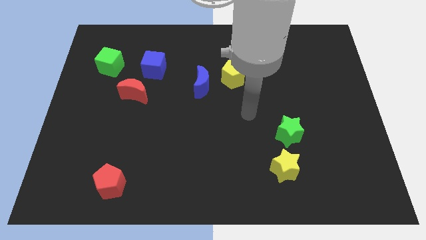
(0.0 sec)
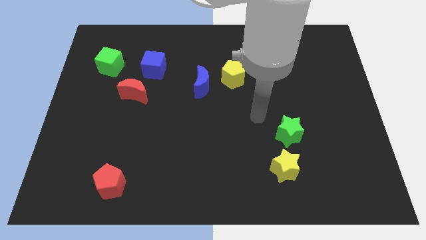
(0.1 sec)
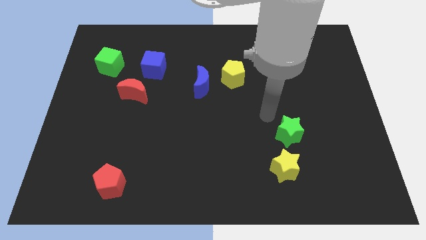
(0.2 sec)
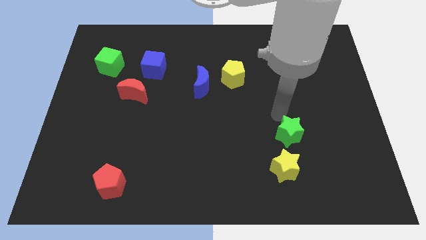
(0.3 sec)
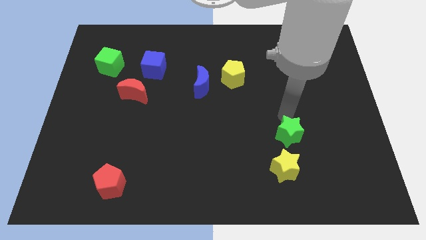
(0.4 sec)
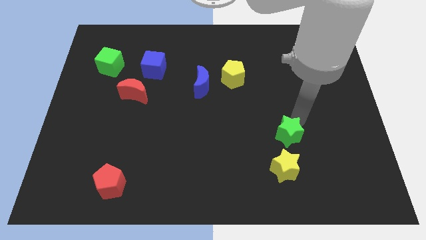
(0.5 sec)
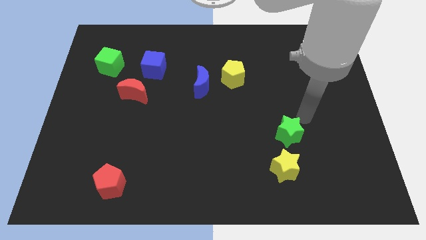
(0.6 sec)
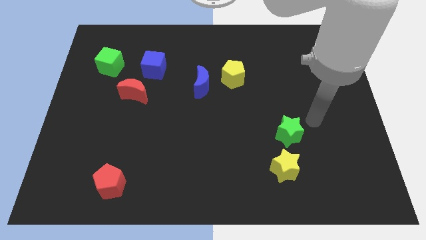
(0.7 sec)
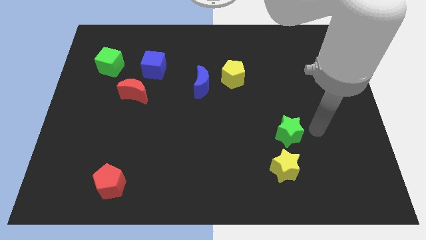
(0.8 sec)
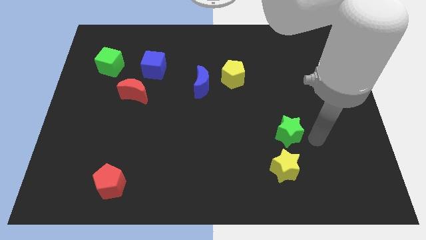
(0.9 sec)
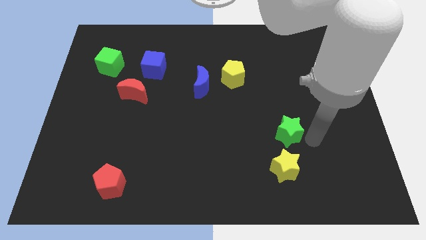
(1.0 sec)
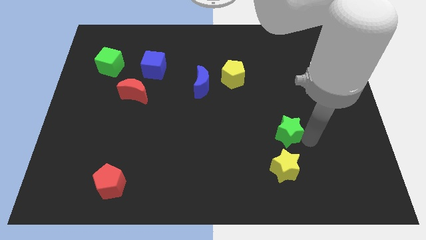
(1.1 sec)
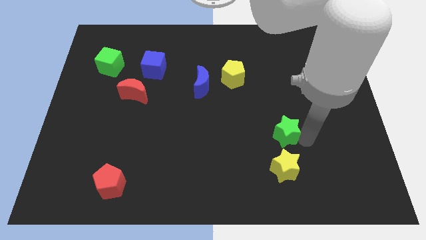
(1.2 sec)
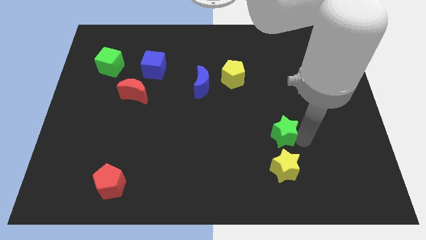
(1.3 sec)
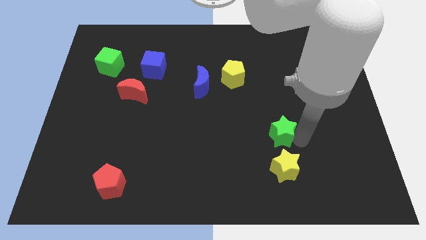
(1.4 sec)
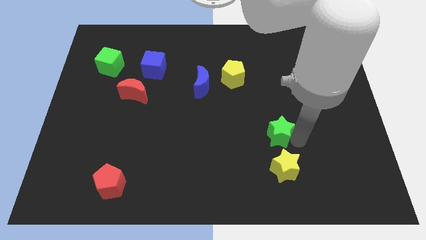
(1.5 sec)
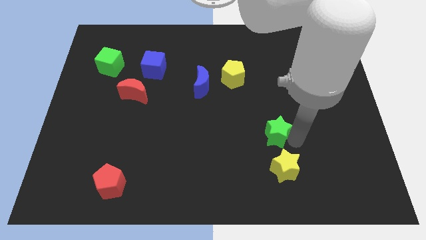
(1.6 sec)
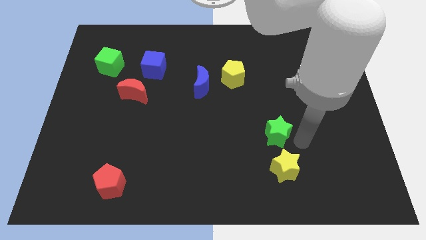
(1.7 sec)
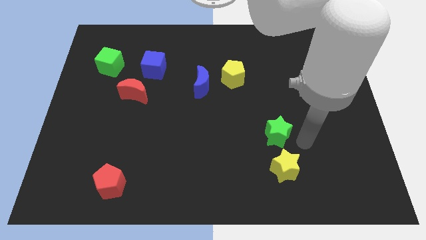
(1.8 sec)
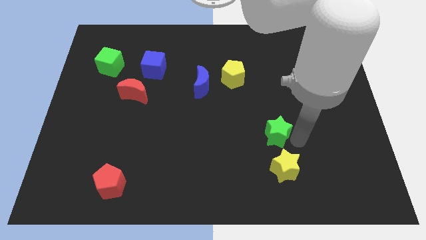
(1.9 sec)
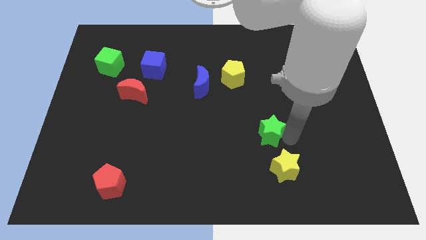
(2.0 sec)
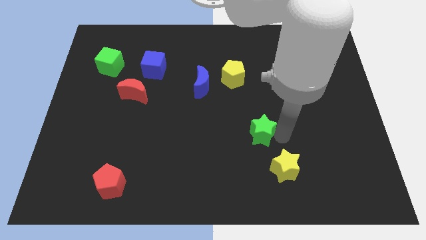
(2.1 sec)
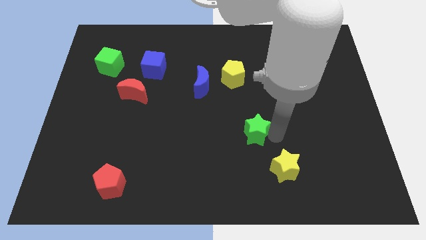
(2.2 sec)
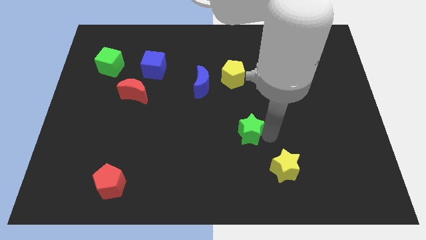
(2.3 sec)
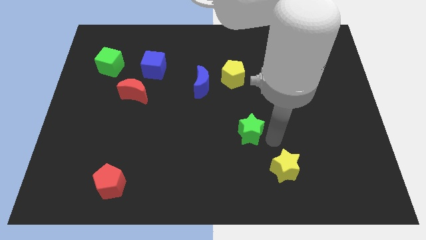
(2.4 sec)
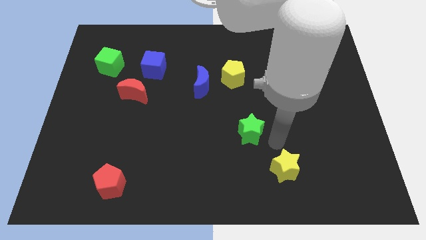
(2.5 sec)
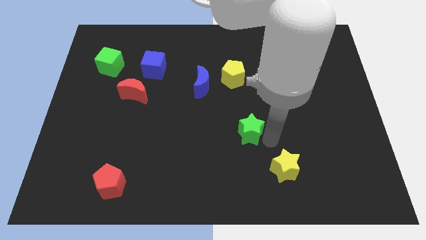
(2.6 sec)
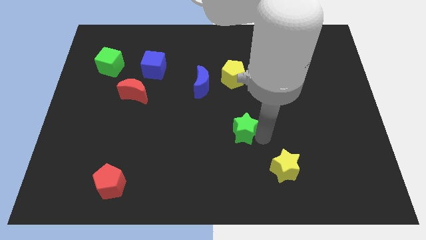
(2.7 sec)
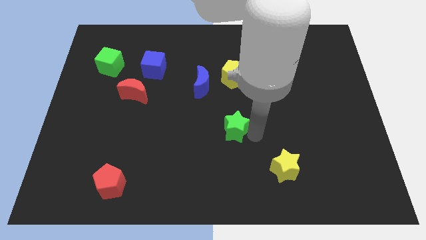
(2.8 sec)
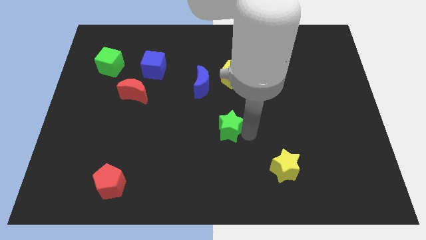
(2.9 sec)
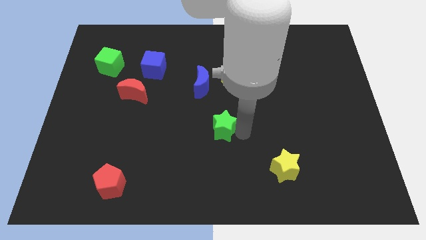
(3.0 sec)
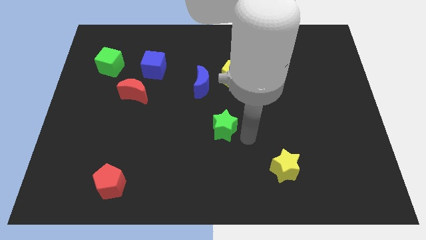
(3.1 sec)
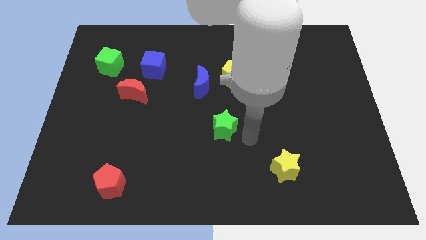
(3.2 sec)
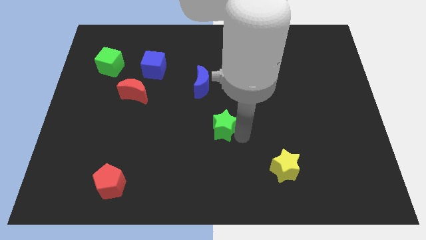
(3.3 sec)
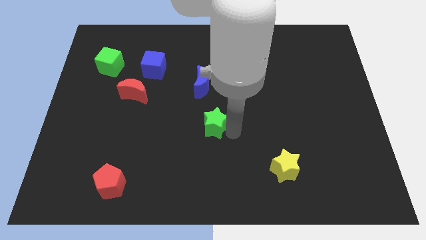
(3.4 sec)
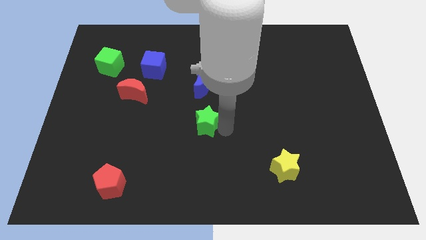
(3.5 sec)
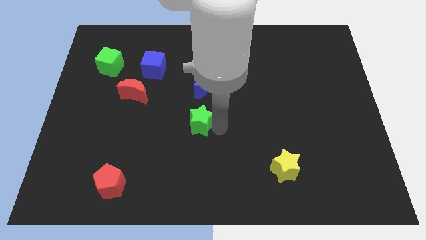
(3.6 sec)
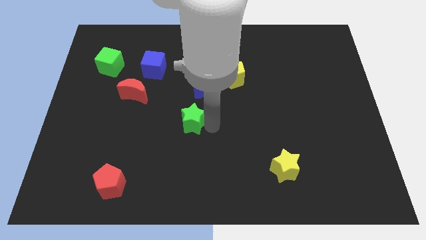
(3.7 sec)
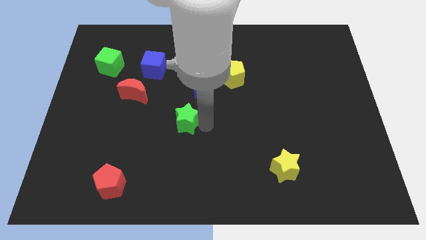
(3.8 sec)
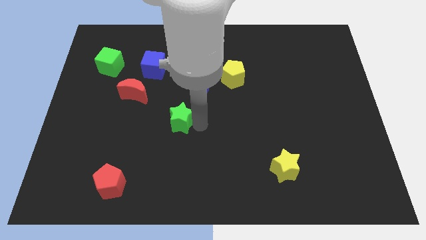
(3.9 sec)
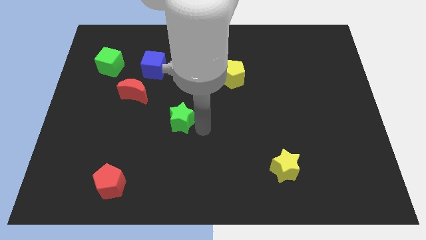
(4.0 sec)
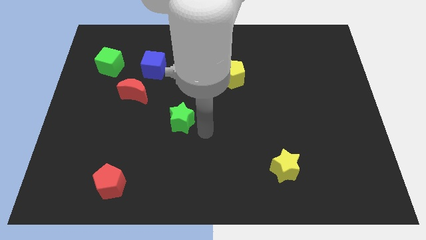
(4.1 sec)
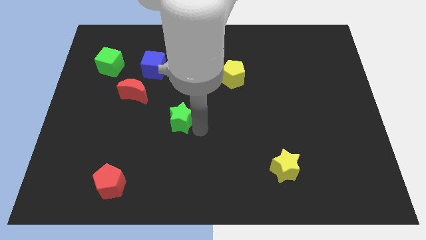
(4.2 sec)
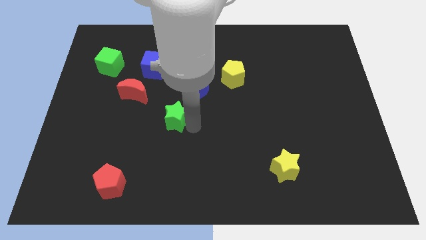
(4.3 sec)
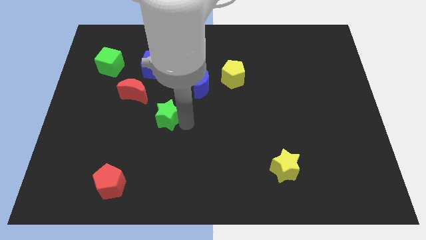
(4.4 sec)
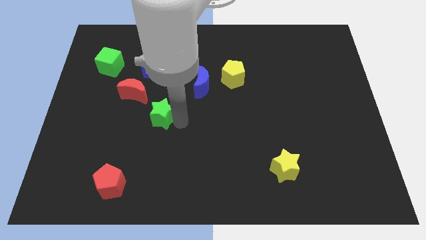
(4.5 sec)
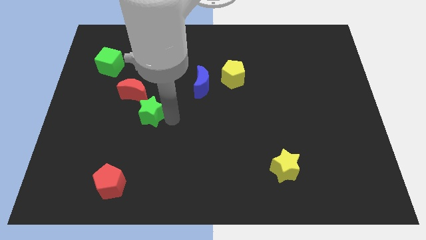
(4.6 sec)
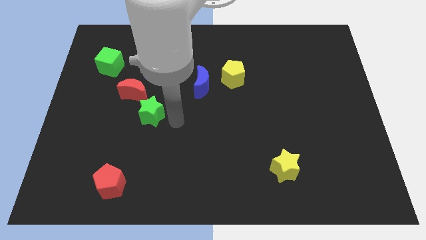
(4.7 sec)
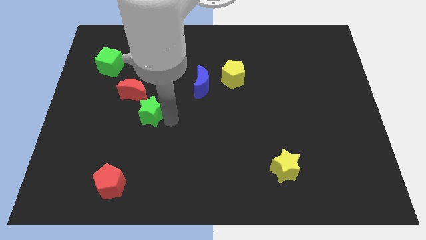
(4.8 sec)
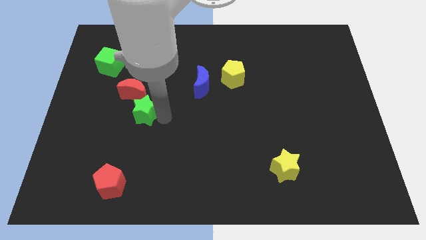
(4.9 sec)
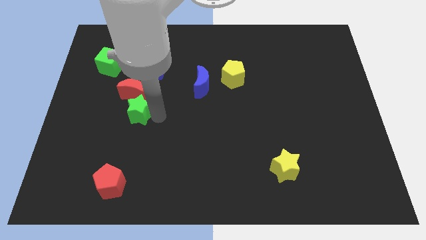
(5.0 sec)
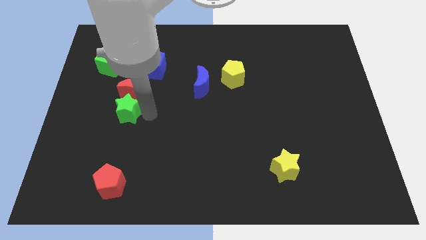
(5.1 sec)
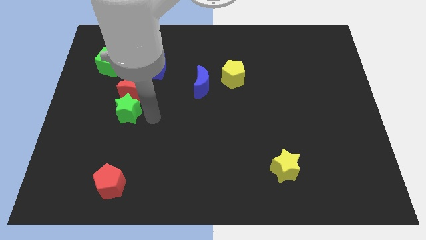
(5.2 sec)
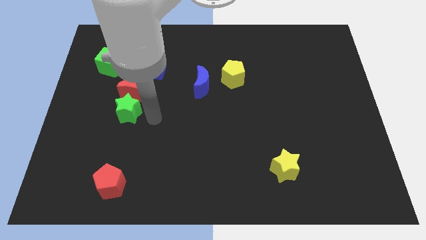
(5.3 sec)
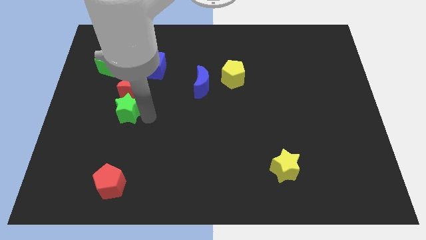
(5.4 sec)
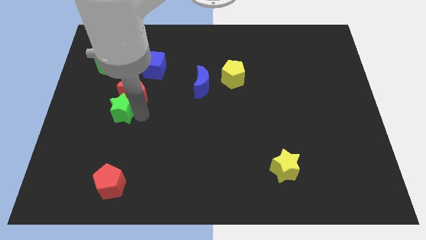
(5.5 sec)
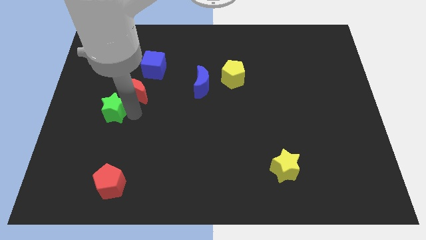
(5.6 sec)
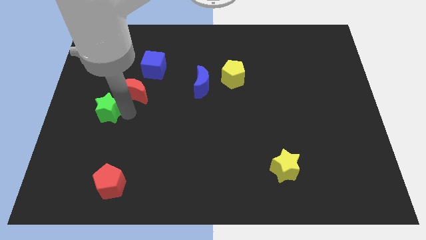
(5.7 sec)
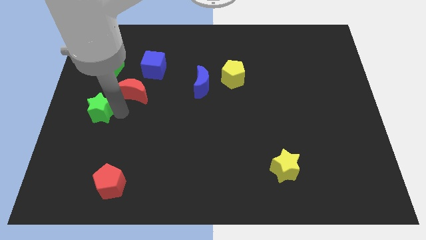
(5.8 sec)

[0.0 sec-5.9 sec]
slide the green star to the left side

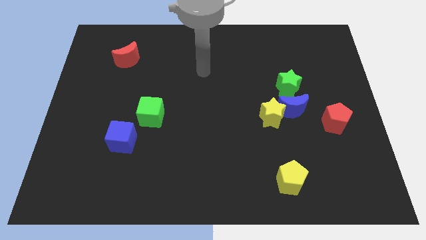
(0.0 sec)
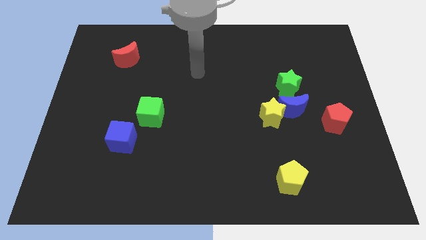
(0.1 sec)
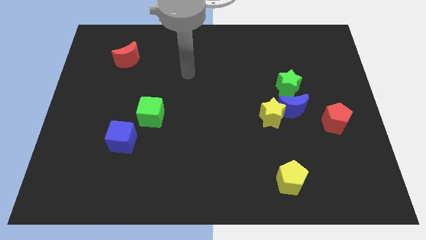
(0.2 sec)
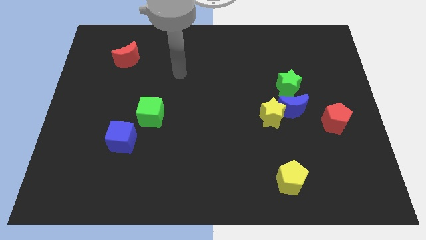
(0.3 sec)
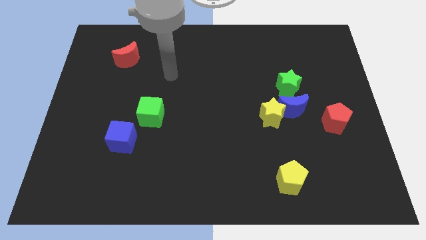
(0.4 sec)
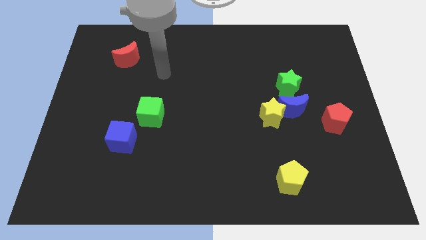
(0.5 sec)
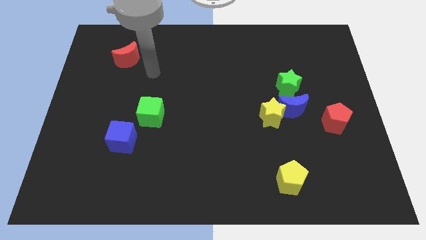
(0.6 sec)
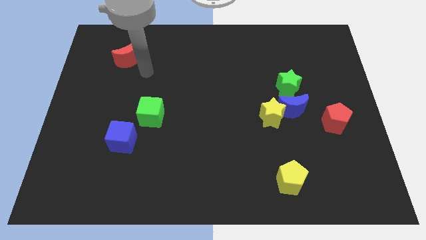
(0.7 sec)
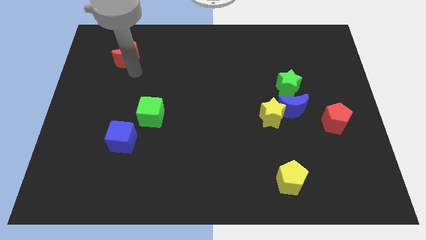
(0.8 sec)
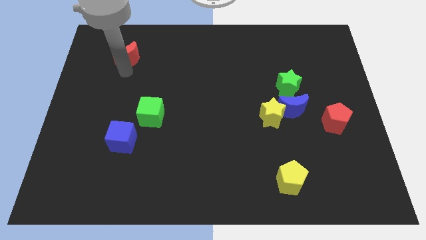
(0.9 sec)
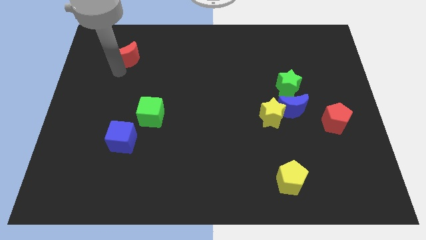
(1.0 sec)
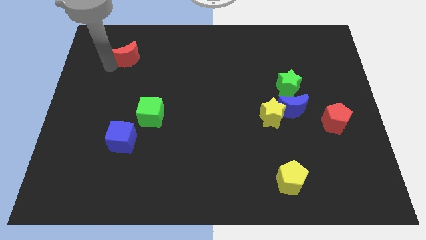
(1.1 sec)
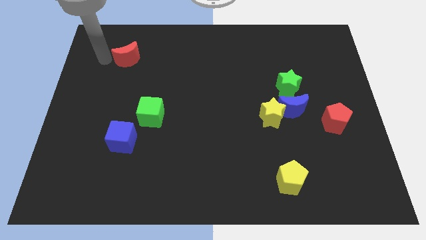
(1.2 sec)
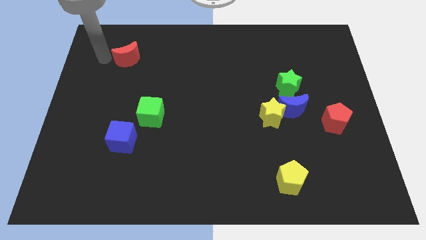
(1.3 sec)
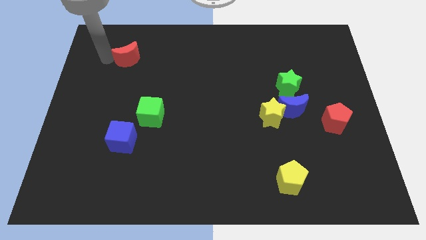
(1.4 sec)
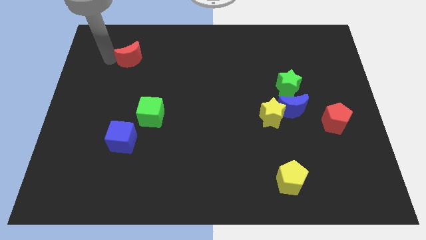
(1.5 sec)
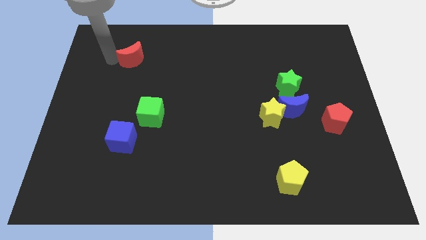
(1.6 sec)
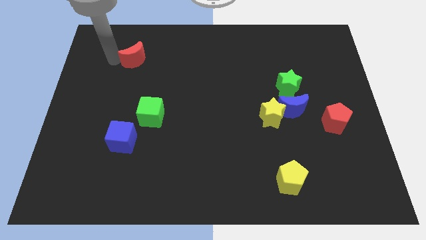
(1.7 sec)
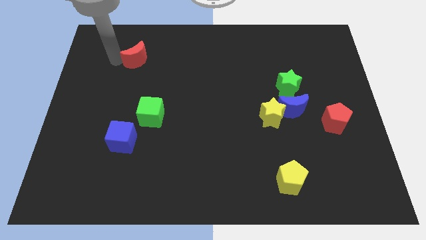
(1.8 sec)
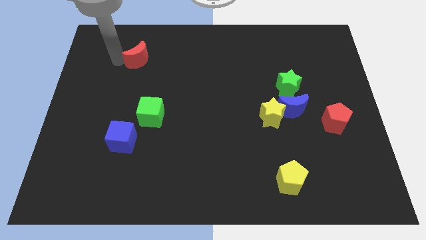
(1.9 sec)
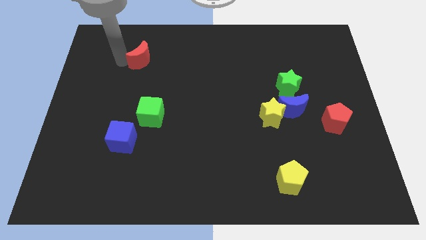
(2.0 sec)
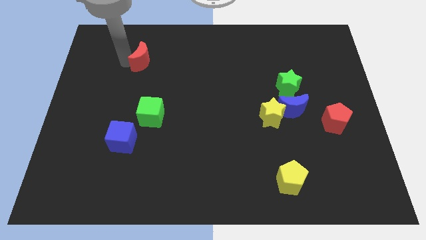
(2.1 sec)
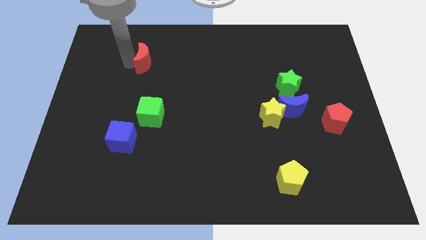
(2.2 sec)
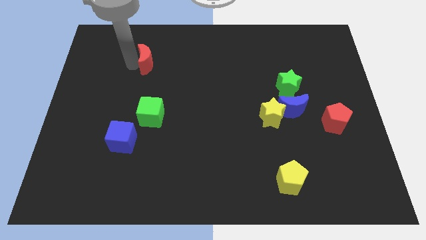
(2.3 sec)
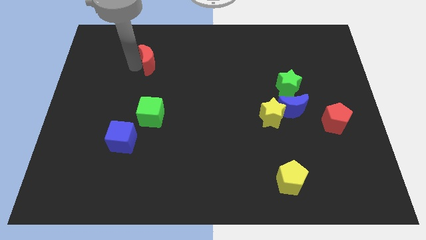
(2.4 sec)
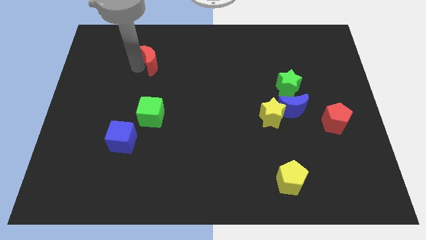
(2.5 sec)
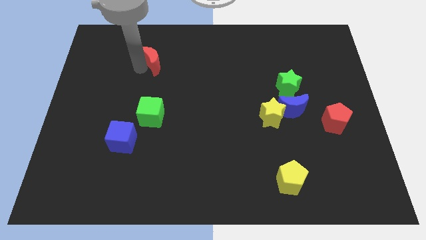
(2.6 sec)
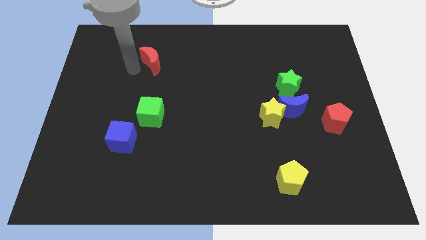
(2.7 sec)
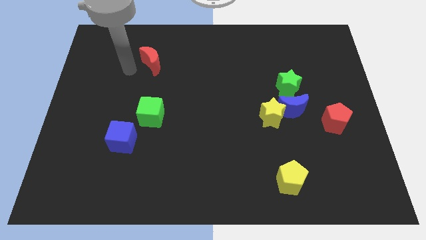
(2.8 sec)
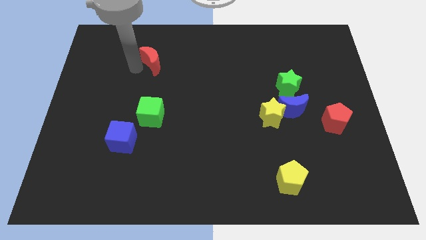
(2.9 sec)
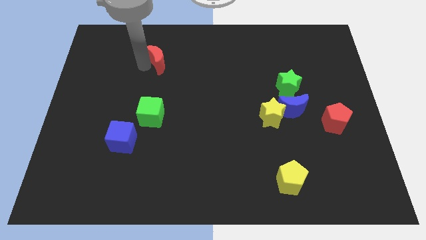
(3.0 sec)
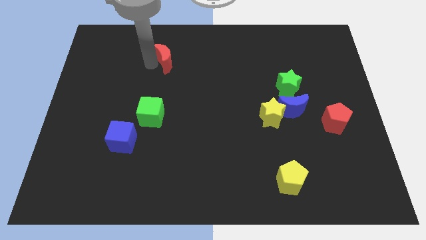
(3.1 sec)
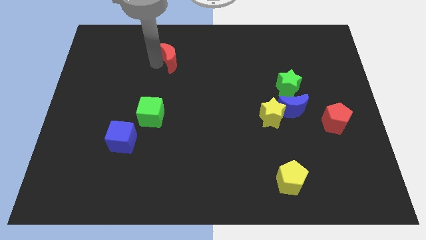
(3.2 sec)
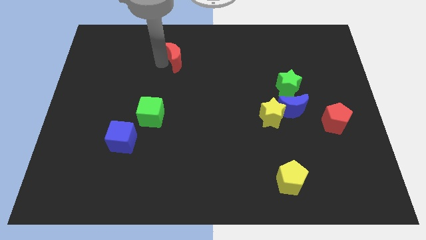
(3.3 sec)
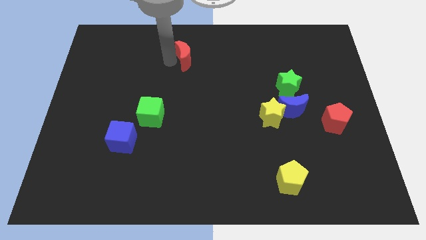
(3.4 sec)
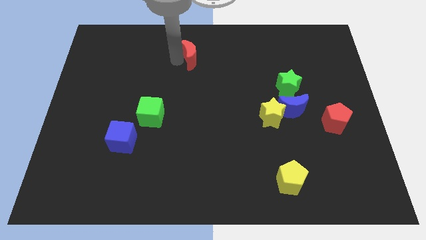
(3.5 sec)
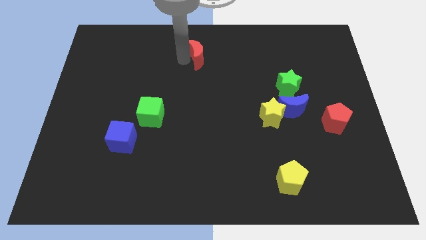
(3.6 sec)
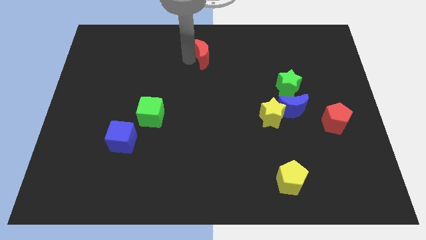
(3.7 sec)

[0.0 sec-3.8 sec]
push the red moon to the top side
